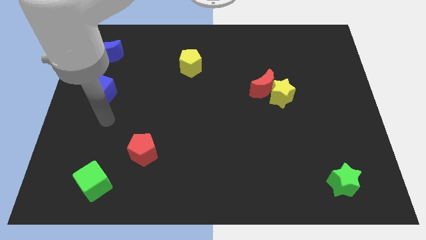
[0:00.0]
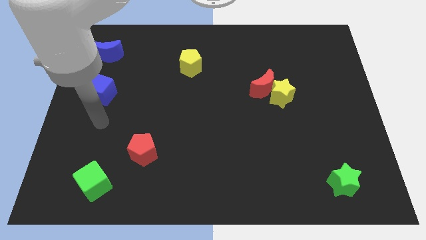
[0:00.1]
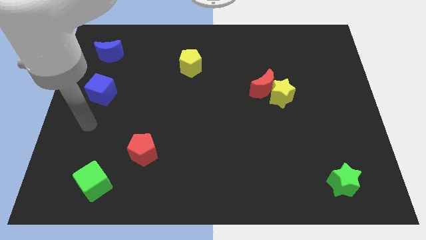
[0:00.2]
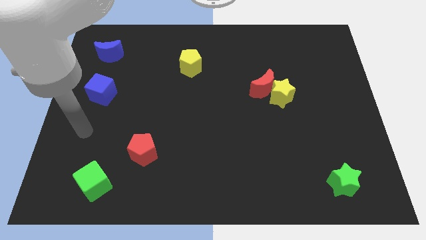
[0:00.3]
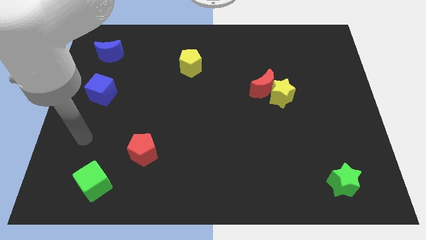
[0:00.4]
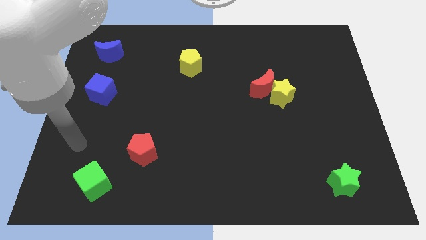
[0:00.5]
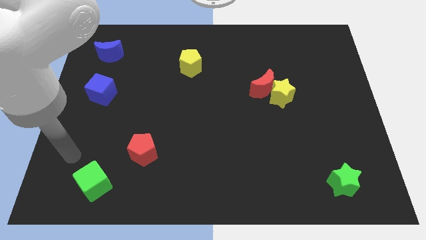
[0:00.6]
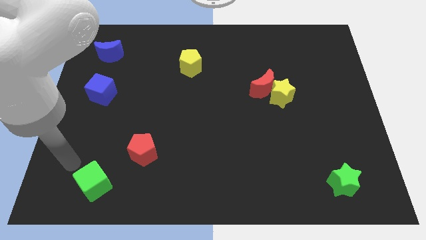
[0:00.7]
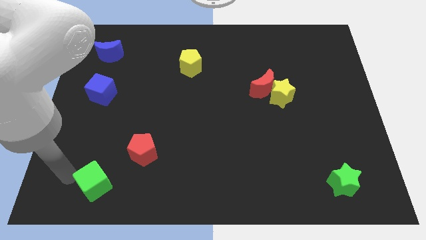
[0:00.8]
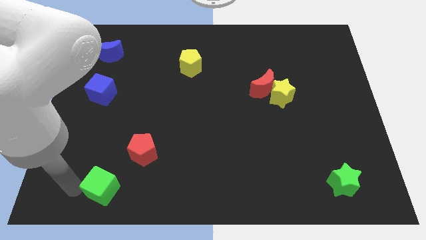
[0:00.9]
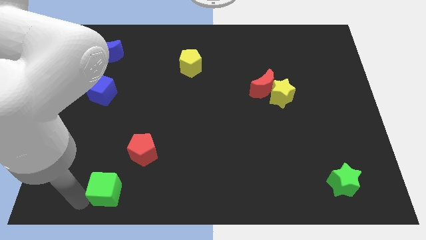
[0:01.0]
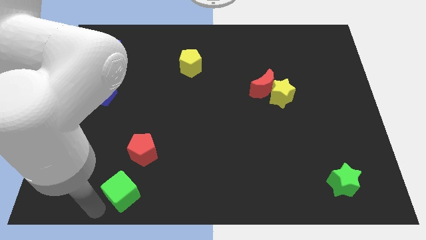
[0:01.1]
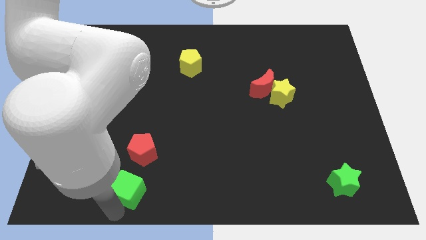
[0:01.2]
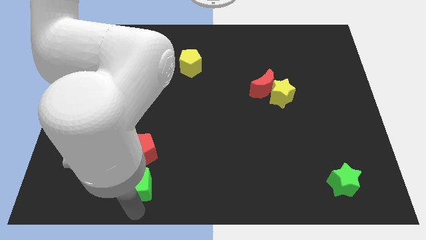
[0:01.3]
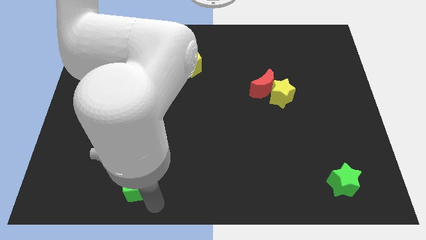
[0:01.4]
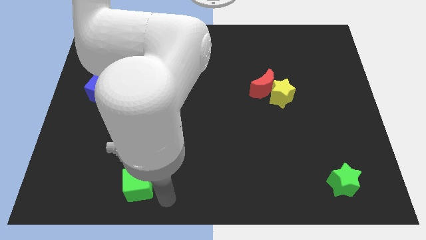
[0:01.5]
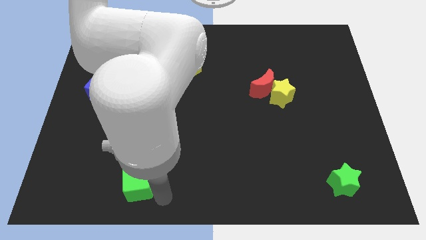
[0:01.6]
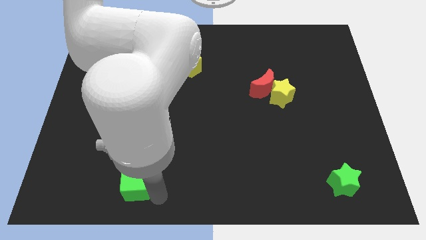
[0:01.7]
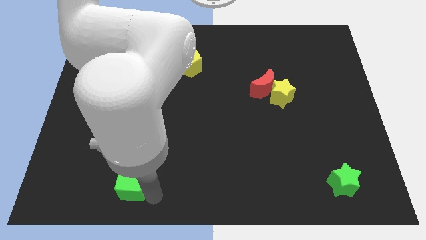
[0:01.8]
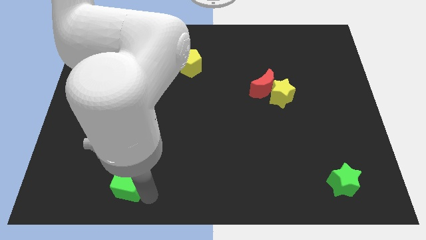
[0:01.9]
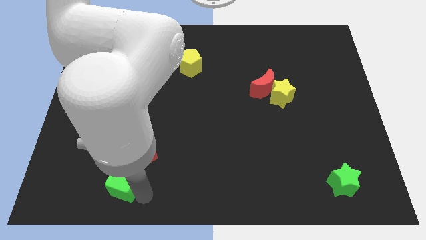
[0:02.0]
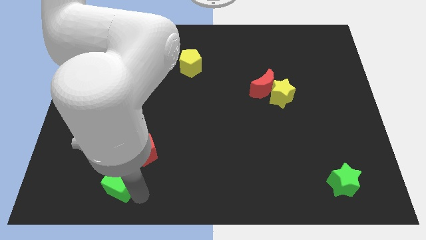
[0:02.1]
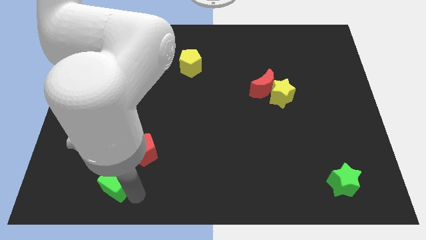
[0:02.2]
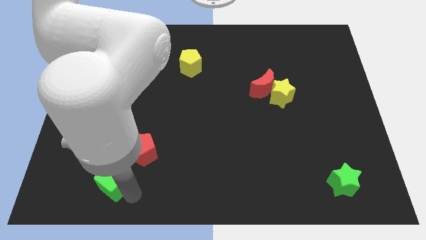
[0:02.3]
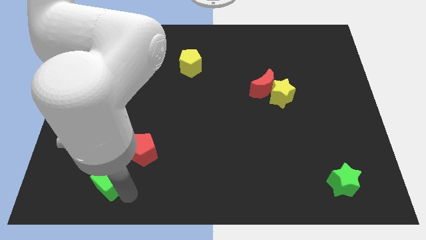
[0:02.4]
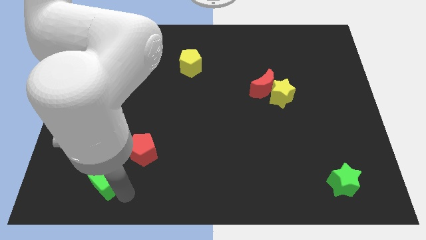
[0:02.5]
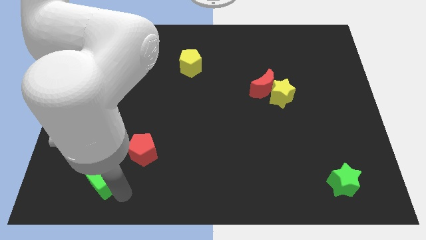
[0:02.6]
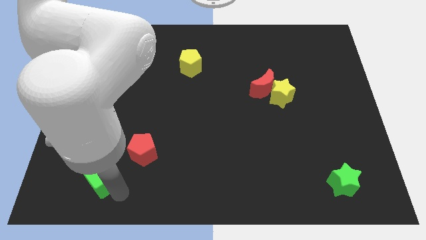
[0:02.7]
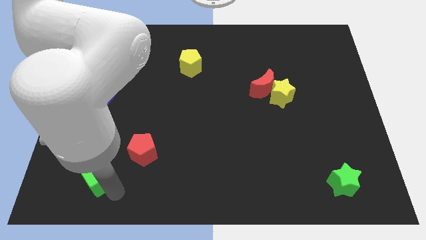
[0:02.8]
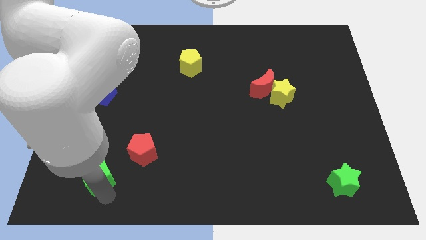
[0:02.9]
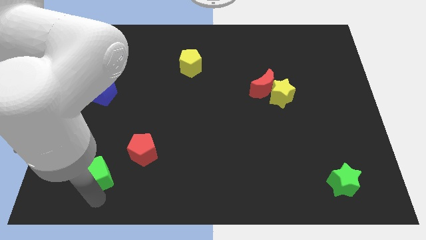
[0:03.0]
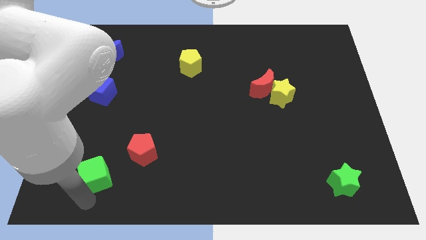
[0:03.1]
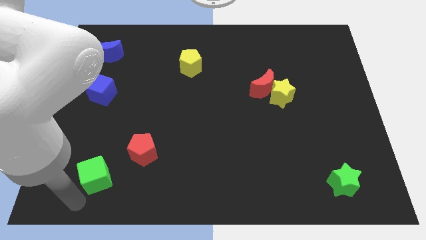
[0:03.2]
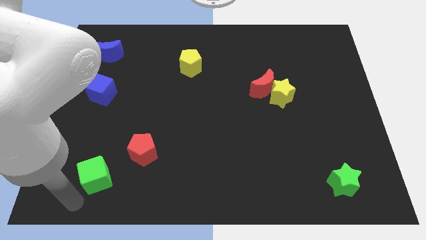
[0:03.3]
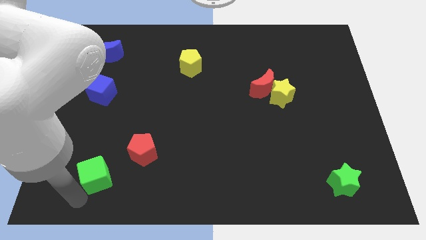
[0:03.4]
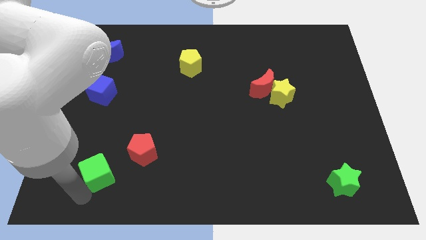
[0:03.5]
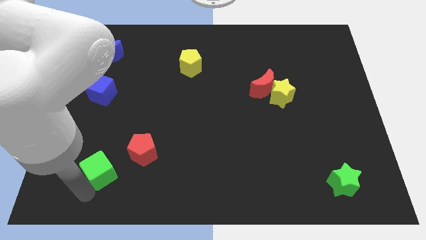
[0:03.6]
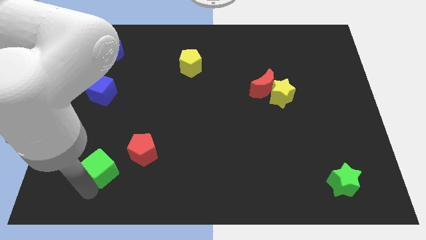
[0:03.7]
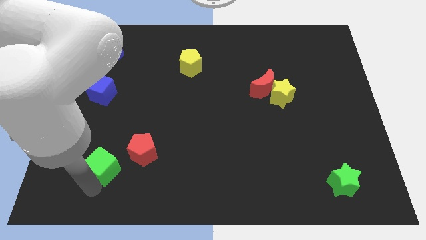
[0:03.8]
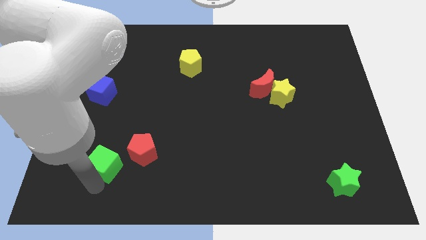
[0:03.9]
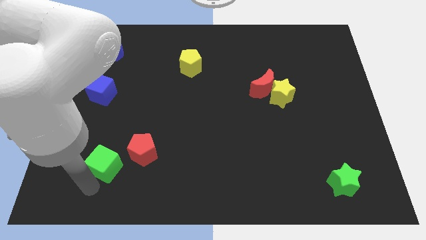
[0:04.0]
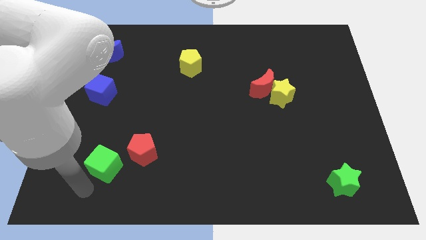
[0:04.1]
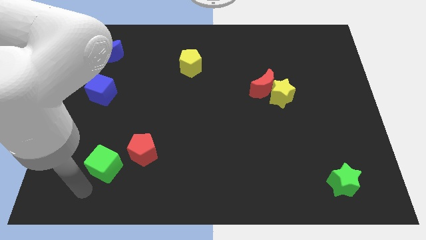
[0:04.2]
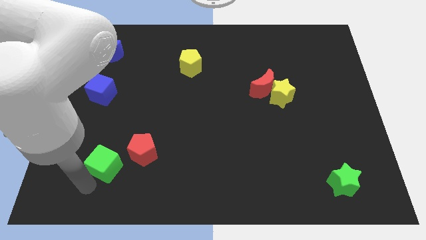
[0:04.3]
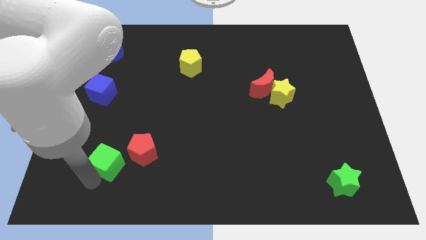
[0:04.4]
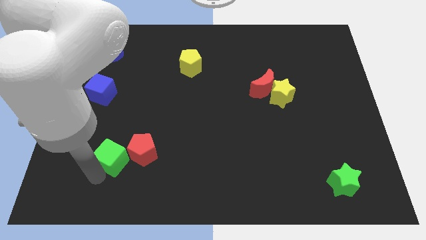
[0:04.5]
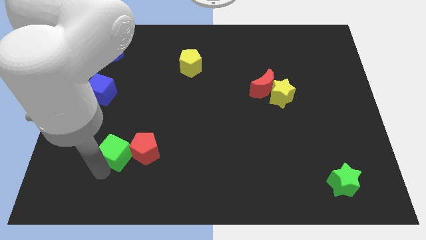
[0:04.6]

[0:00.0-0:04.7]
move the green cube diagonally upwards and right slightly

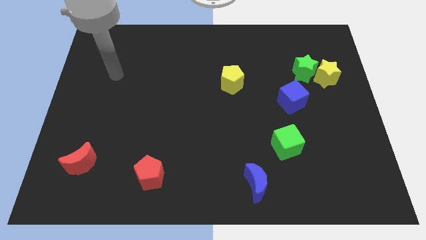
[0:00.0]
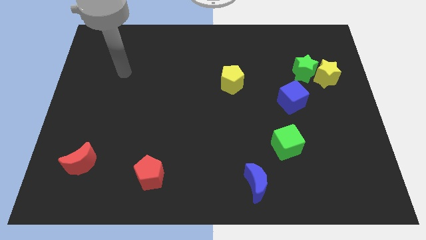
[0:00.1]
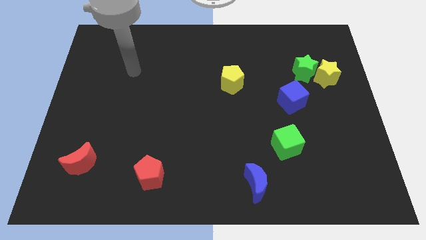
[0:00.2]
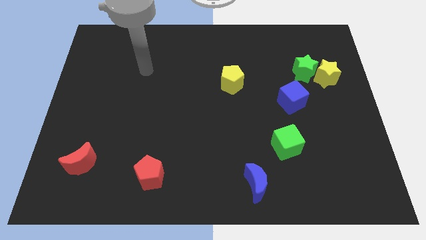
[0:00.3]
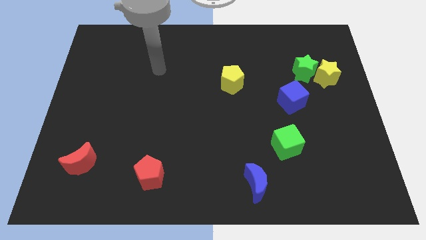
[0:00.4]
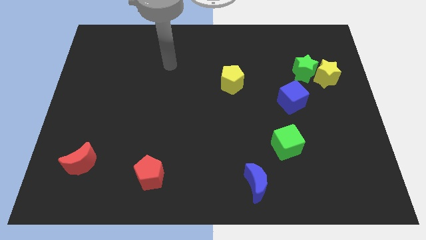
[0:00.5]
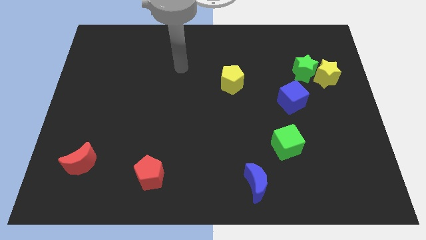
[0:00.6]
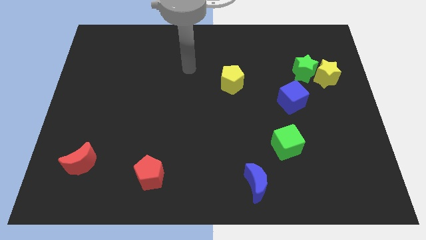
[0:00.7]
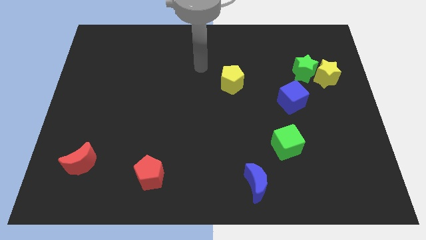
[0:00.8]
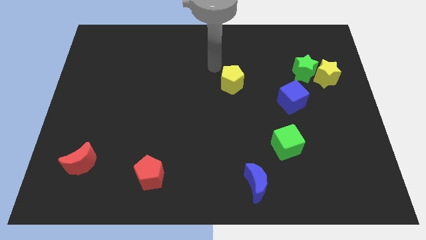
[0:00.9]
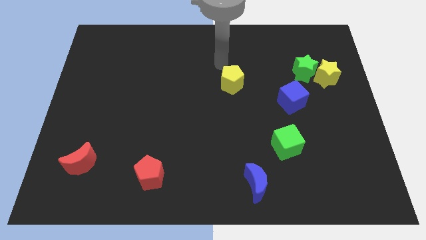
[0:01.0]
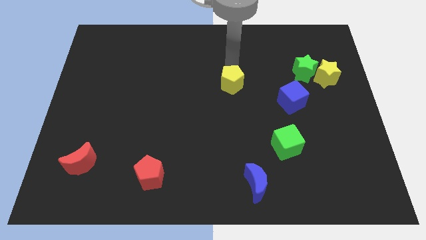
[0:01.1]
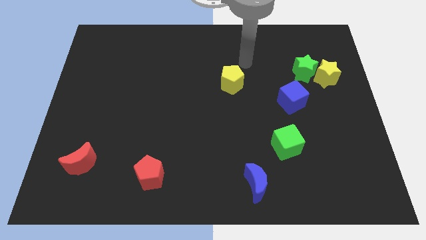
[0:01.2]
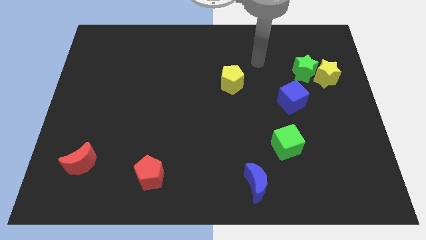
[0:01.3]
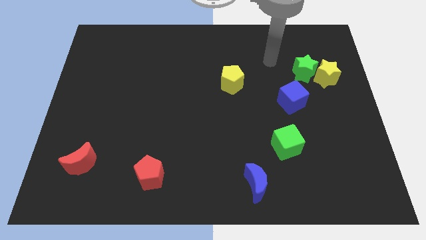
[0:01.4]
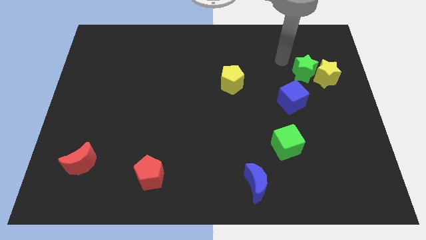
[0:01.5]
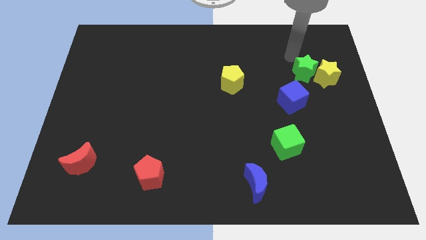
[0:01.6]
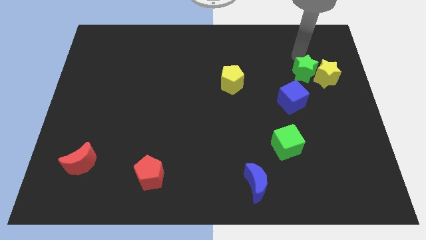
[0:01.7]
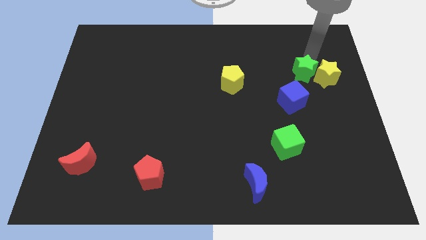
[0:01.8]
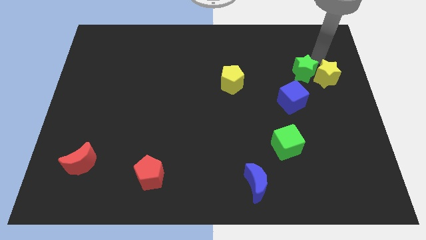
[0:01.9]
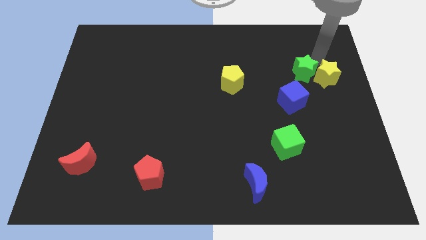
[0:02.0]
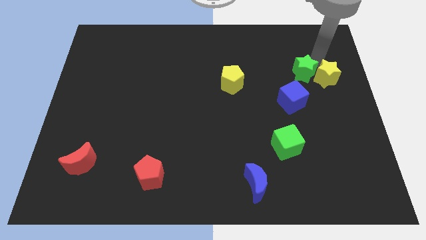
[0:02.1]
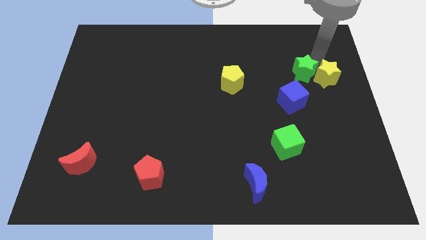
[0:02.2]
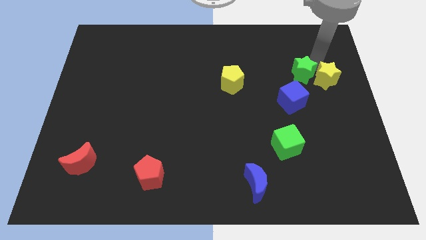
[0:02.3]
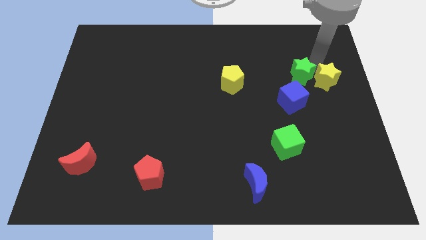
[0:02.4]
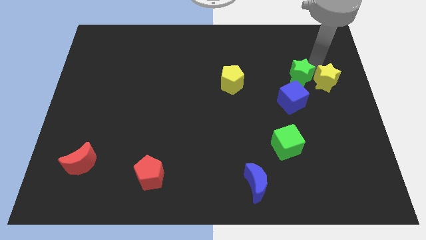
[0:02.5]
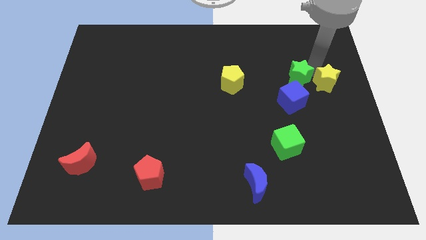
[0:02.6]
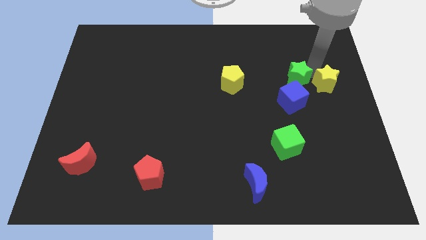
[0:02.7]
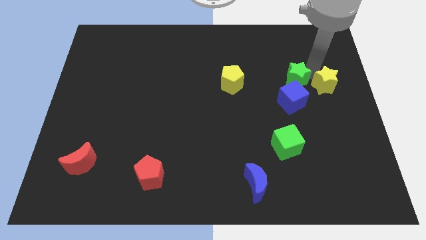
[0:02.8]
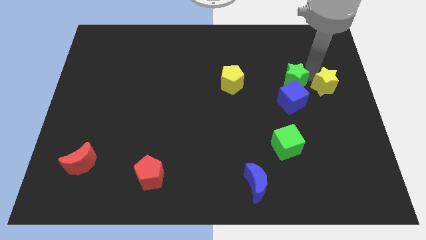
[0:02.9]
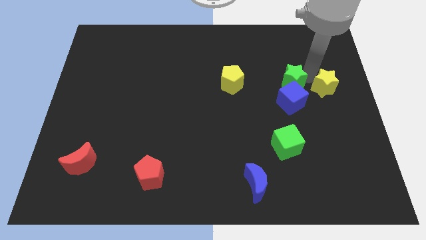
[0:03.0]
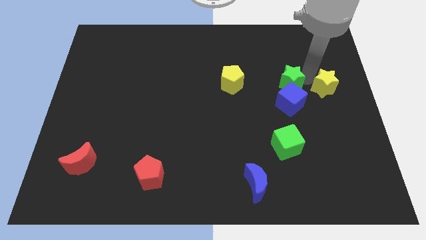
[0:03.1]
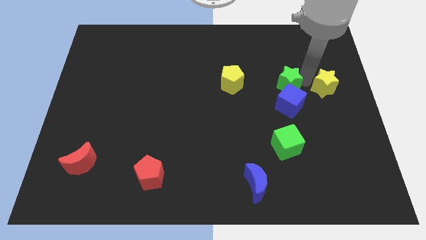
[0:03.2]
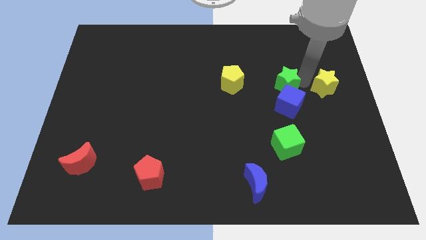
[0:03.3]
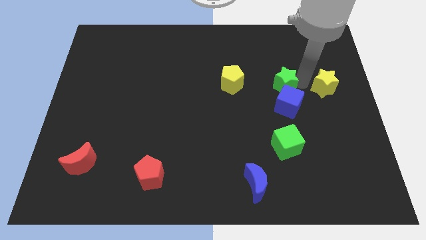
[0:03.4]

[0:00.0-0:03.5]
move the green star diagonally downwards and to the left slightly
